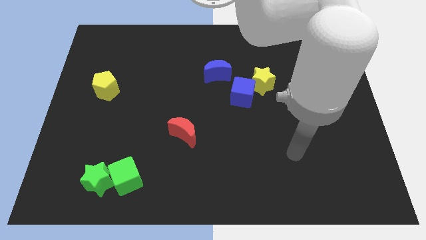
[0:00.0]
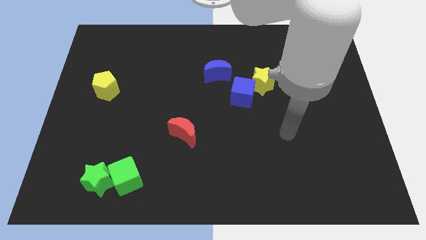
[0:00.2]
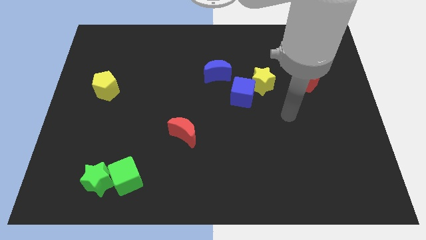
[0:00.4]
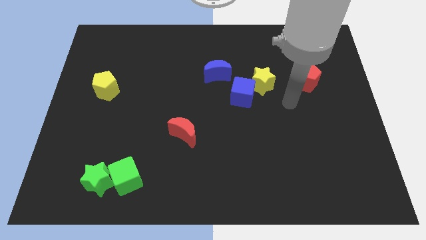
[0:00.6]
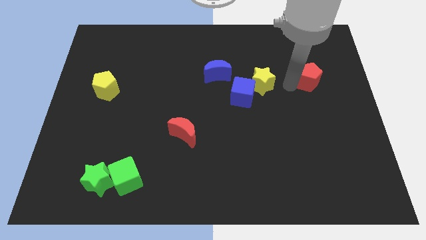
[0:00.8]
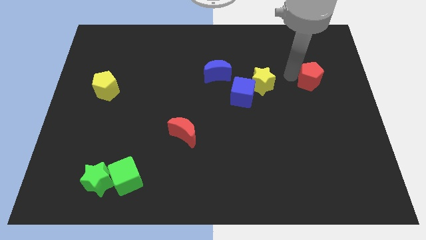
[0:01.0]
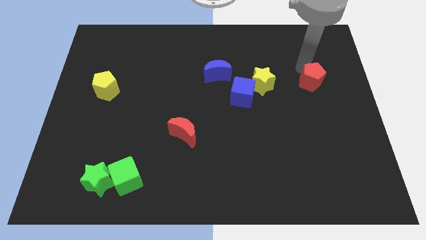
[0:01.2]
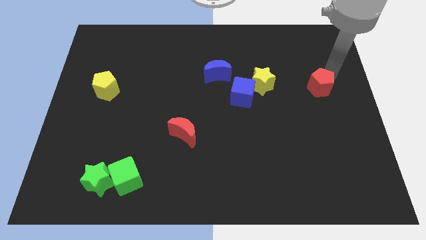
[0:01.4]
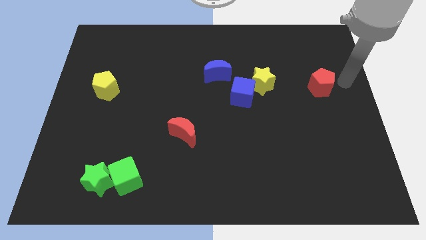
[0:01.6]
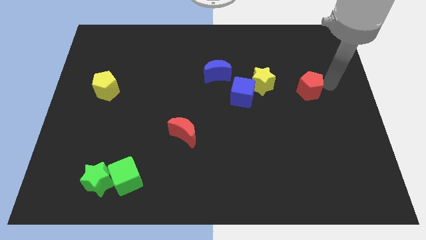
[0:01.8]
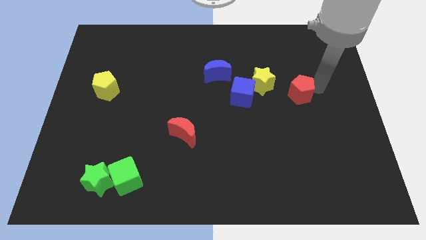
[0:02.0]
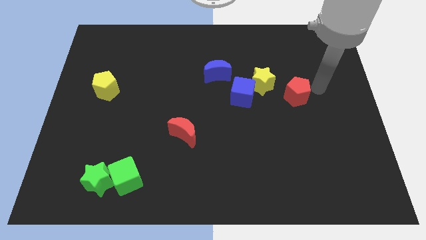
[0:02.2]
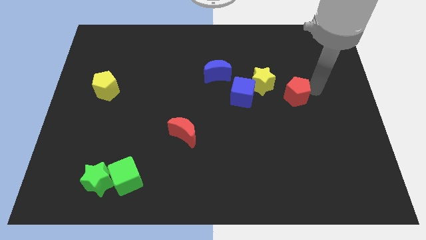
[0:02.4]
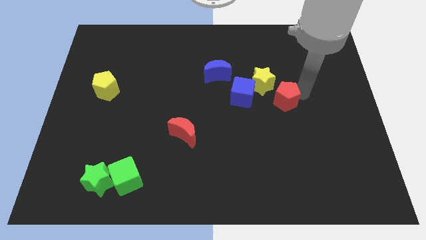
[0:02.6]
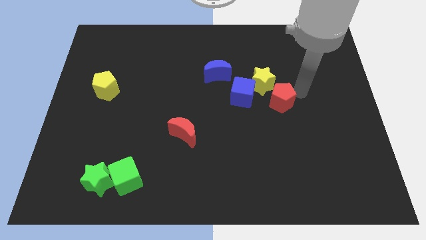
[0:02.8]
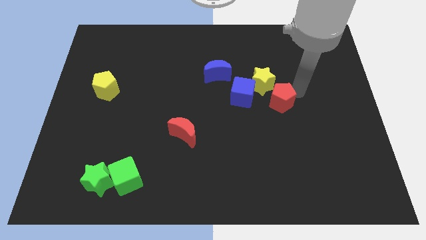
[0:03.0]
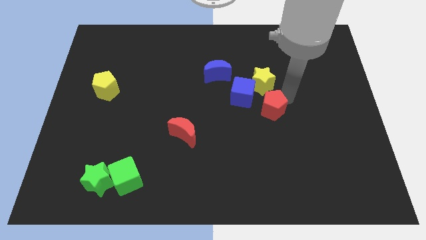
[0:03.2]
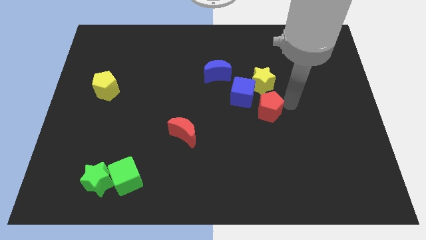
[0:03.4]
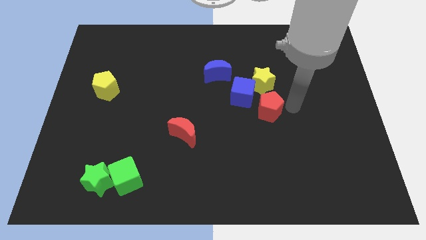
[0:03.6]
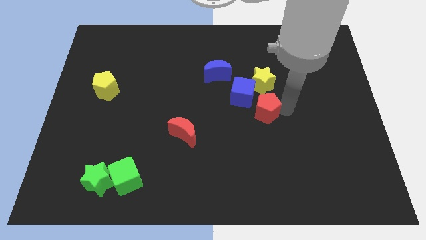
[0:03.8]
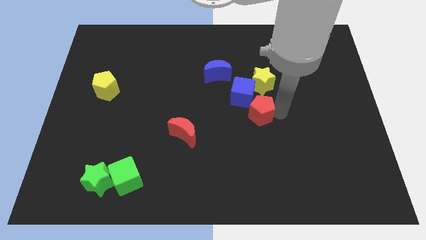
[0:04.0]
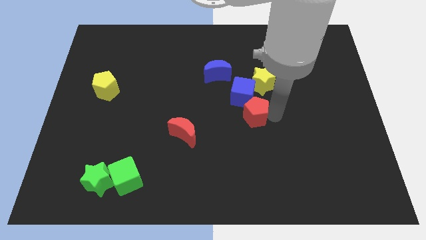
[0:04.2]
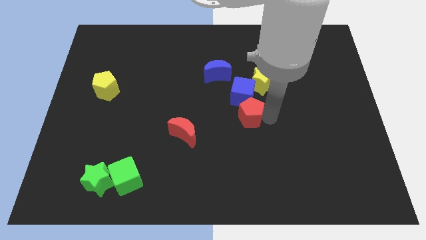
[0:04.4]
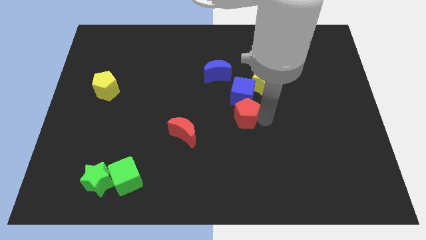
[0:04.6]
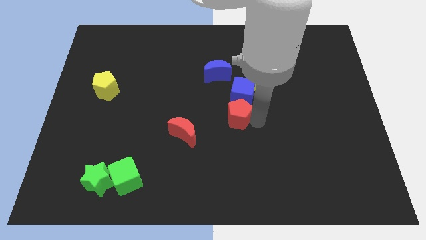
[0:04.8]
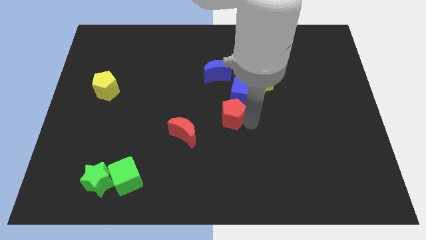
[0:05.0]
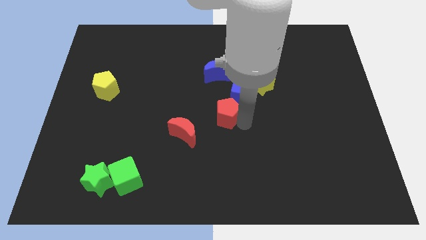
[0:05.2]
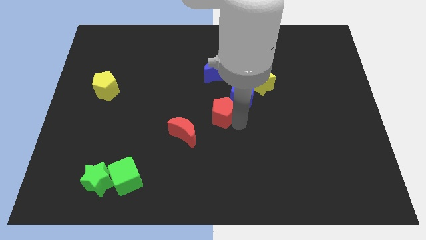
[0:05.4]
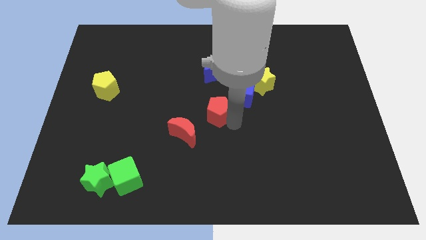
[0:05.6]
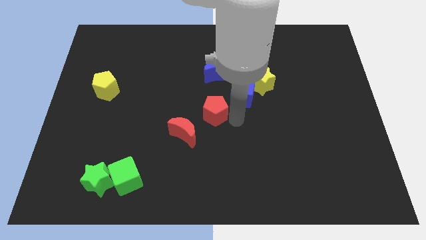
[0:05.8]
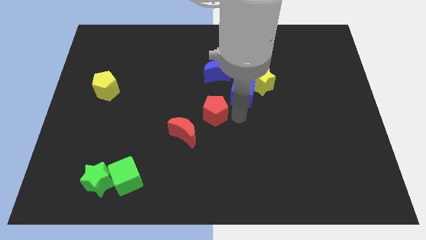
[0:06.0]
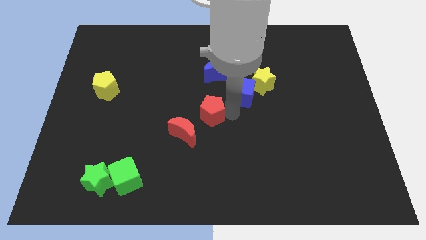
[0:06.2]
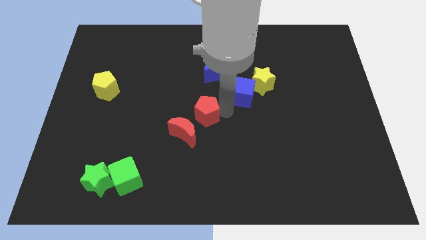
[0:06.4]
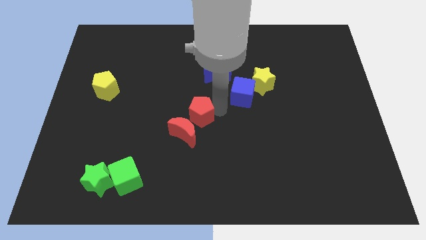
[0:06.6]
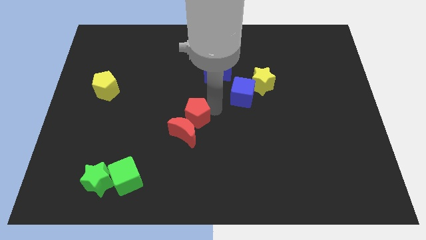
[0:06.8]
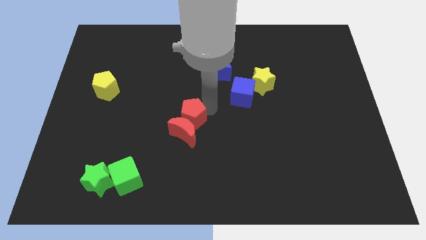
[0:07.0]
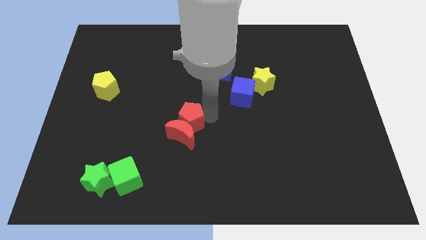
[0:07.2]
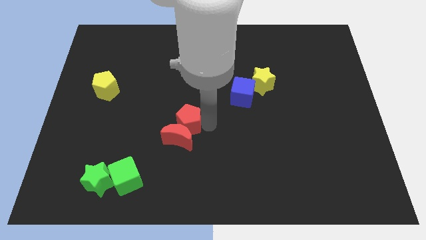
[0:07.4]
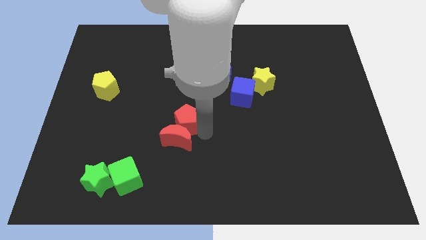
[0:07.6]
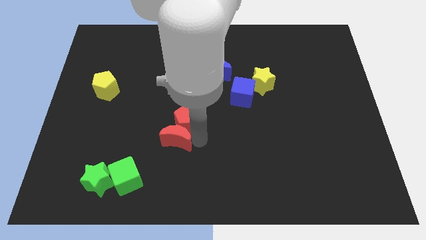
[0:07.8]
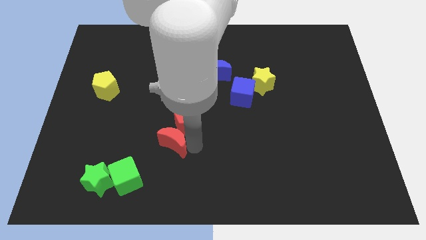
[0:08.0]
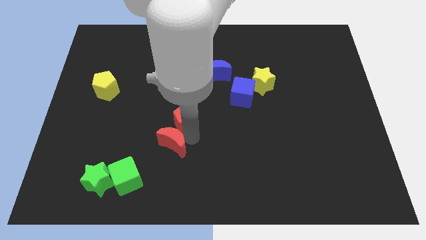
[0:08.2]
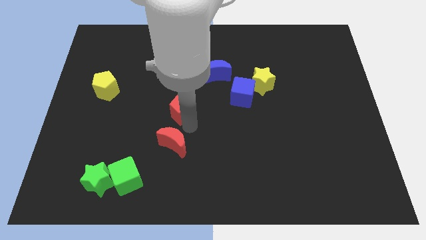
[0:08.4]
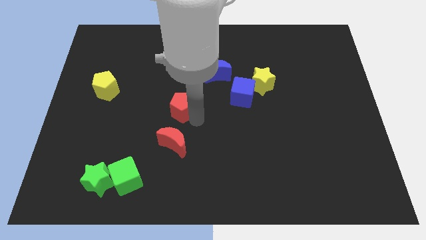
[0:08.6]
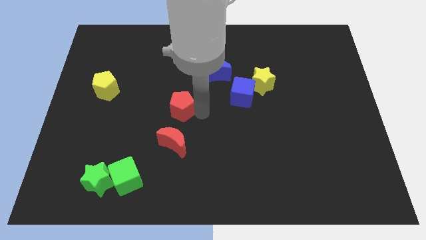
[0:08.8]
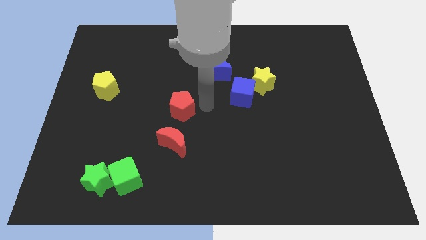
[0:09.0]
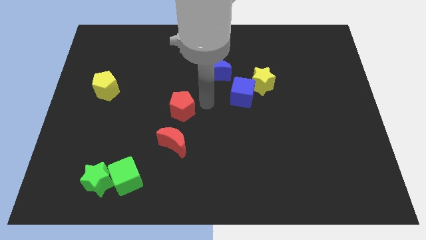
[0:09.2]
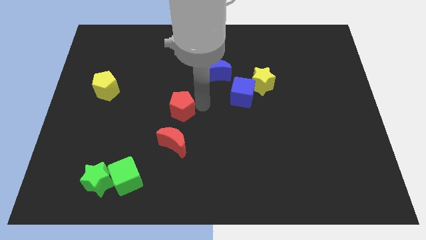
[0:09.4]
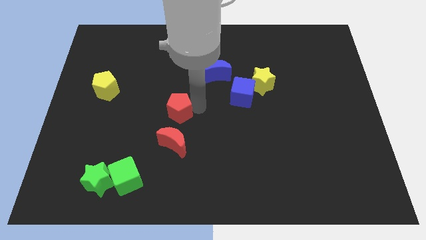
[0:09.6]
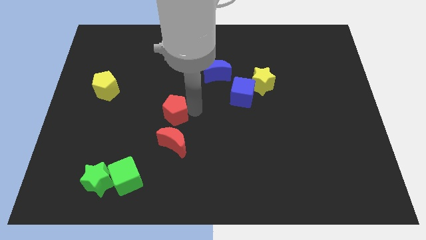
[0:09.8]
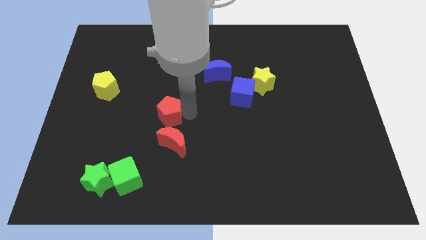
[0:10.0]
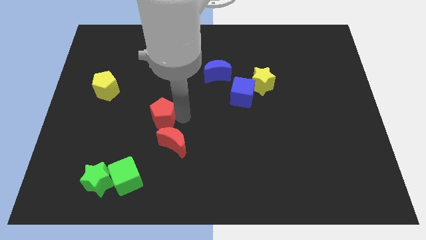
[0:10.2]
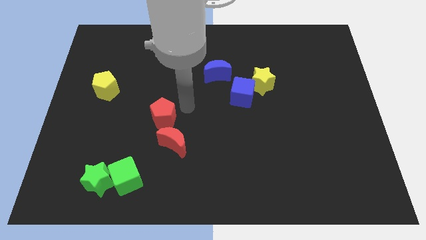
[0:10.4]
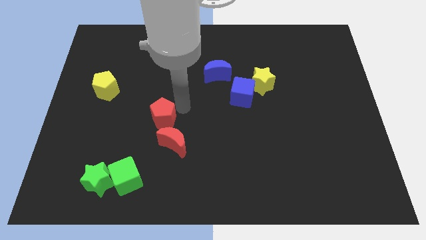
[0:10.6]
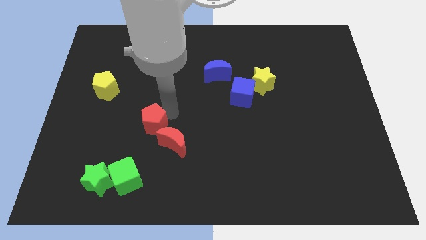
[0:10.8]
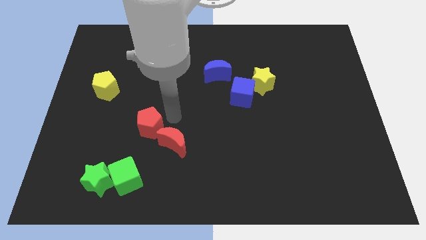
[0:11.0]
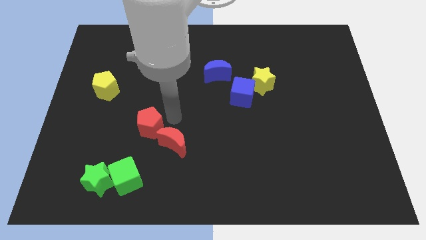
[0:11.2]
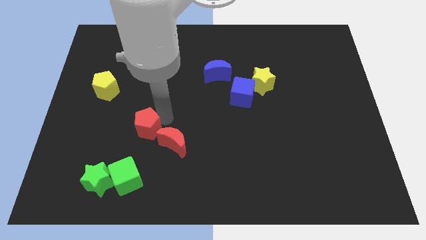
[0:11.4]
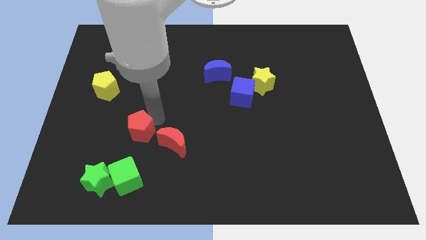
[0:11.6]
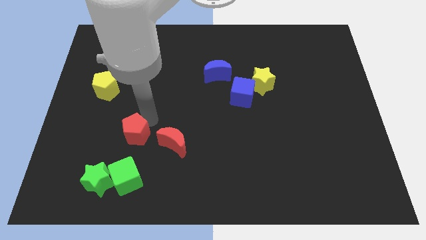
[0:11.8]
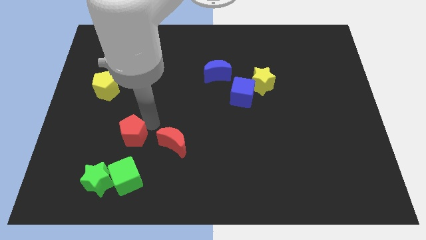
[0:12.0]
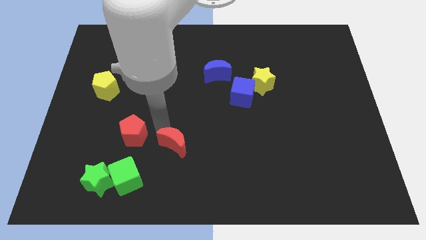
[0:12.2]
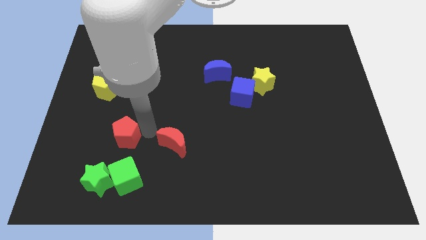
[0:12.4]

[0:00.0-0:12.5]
push the red pentagon to the top of the green star

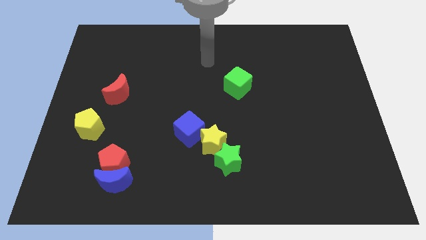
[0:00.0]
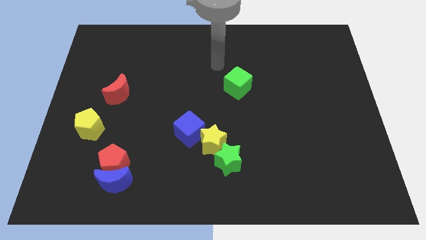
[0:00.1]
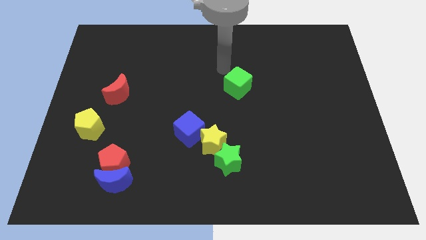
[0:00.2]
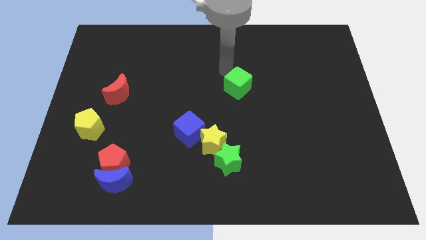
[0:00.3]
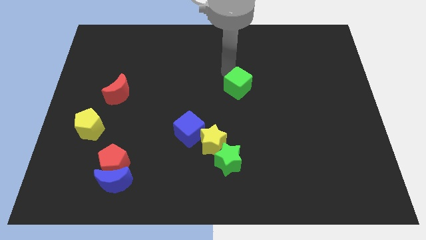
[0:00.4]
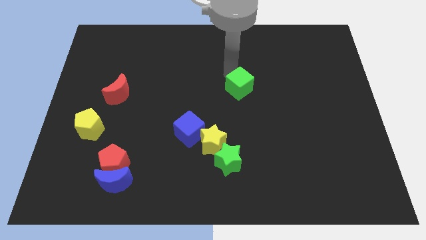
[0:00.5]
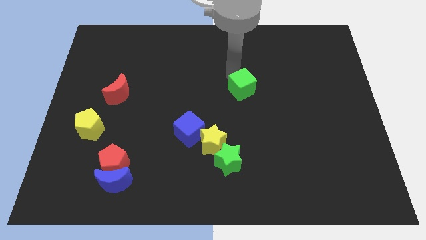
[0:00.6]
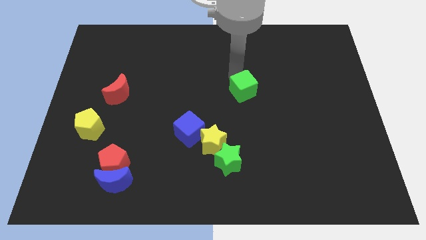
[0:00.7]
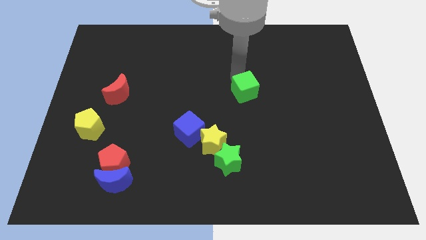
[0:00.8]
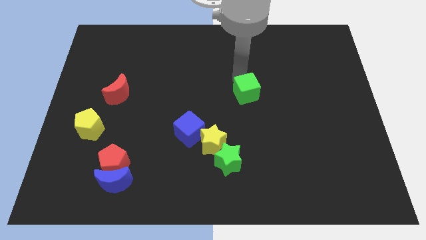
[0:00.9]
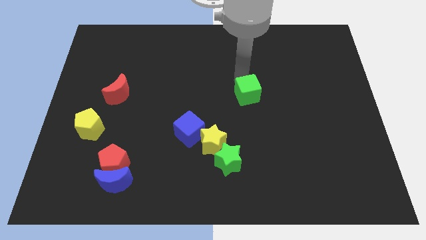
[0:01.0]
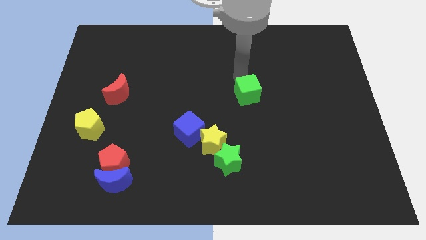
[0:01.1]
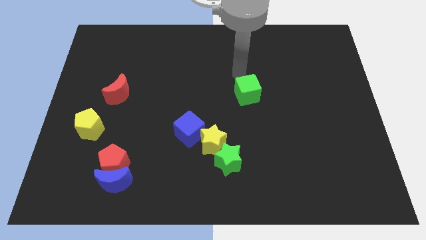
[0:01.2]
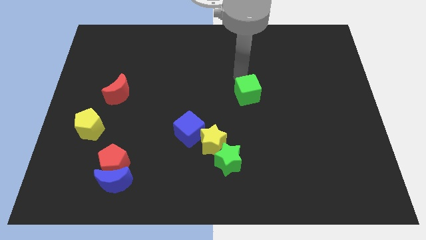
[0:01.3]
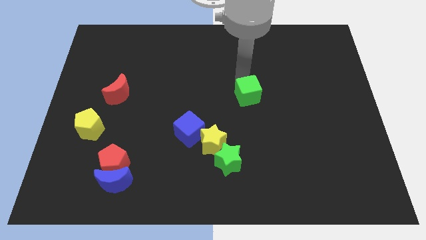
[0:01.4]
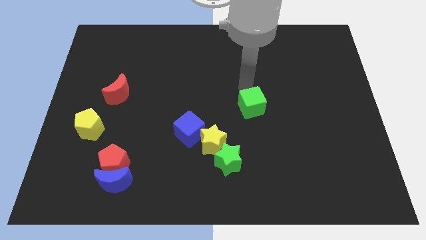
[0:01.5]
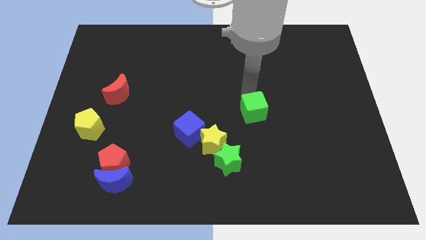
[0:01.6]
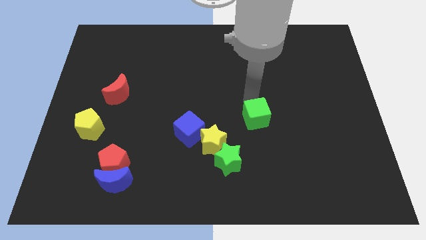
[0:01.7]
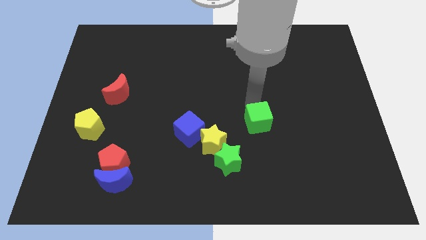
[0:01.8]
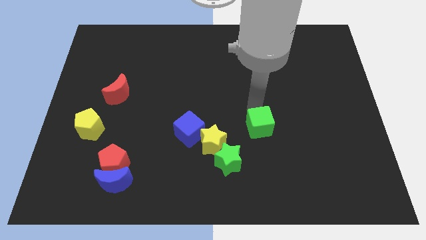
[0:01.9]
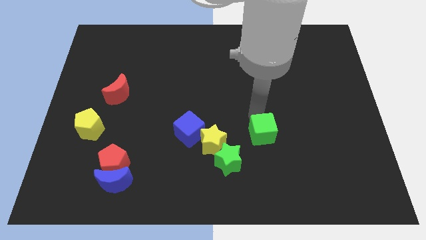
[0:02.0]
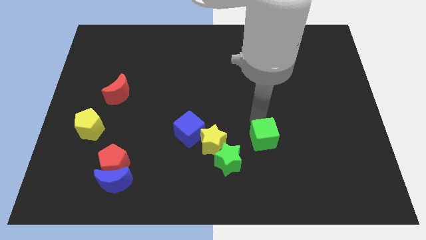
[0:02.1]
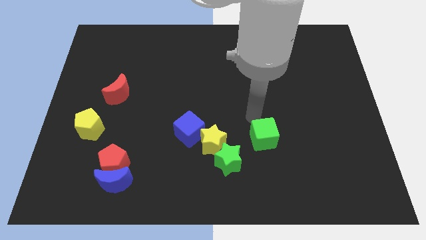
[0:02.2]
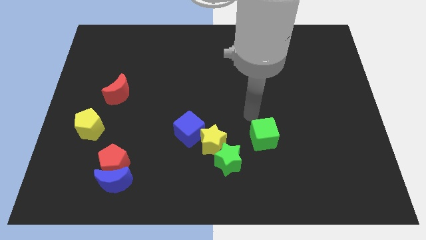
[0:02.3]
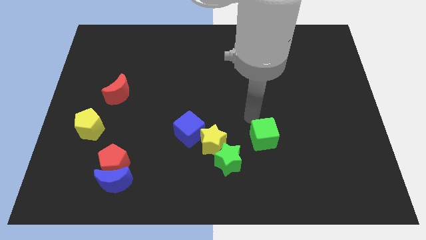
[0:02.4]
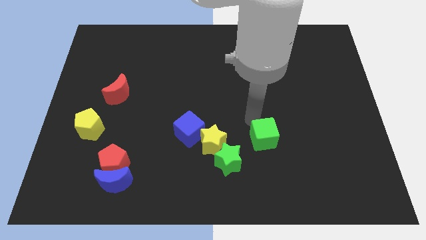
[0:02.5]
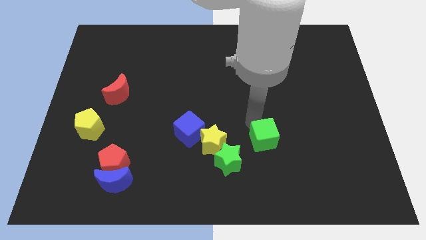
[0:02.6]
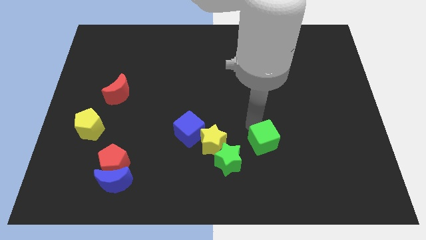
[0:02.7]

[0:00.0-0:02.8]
push the green cube just right of the green star
